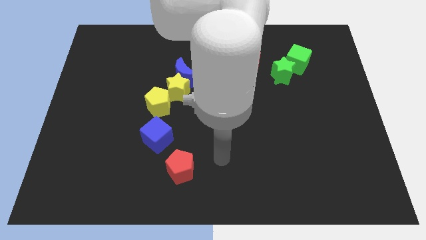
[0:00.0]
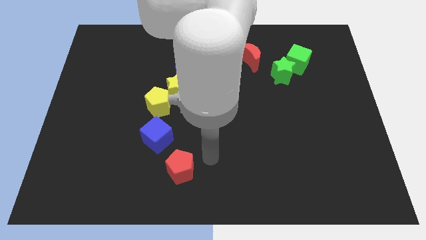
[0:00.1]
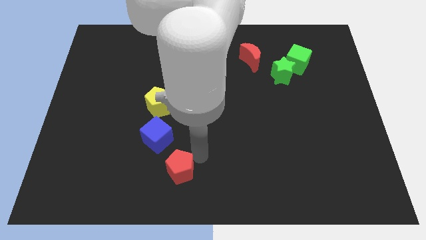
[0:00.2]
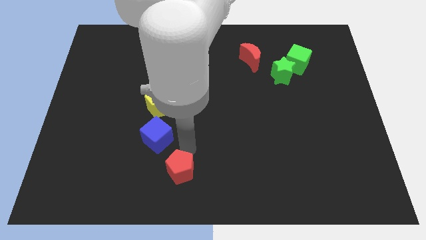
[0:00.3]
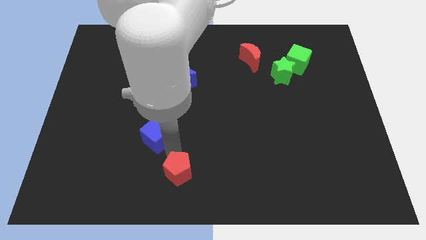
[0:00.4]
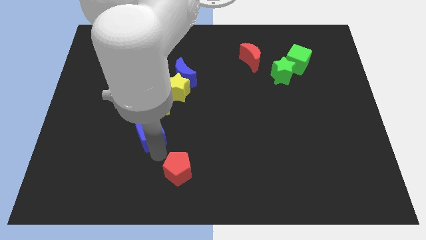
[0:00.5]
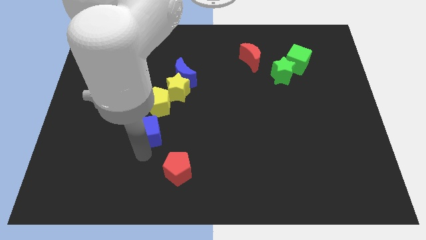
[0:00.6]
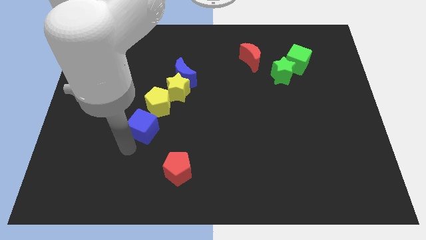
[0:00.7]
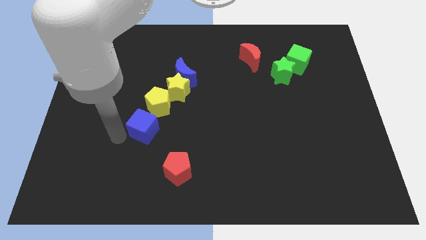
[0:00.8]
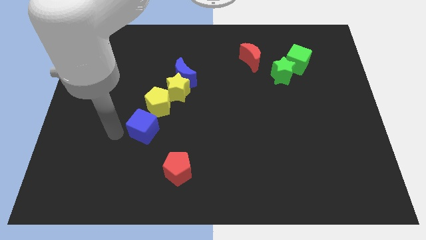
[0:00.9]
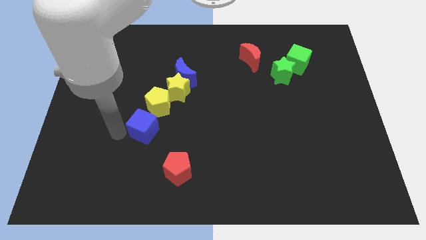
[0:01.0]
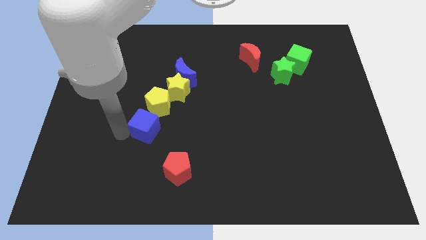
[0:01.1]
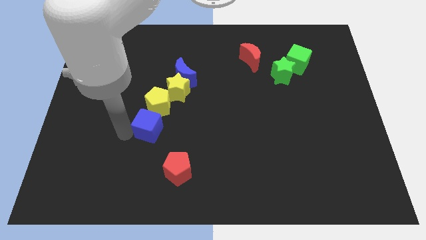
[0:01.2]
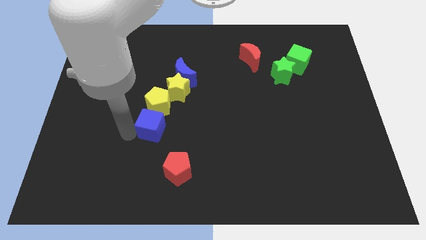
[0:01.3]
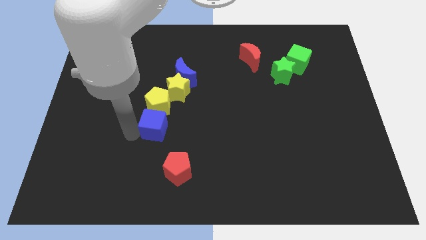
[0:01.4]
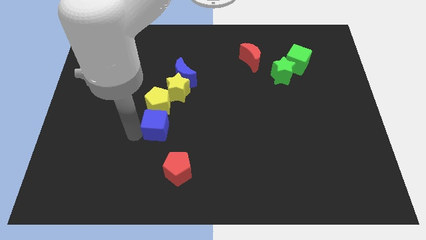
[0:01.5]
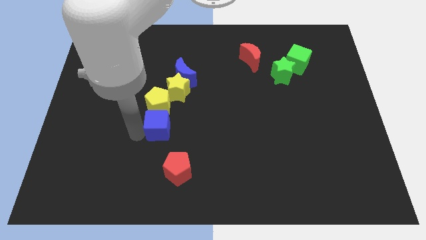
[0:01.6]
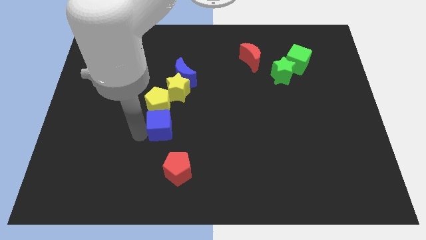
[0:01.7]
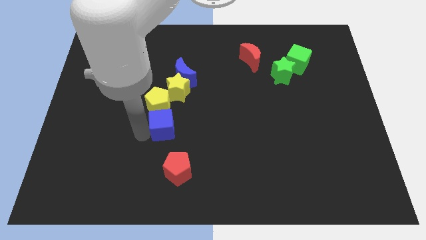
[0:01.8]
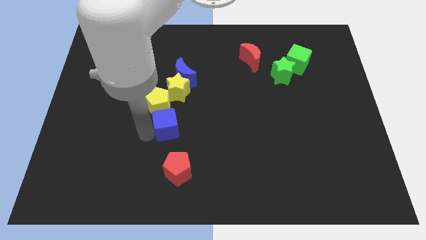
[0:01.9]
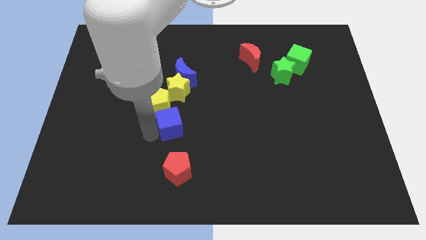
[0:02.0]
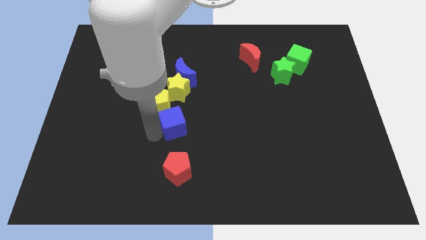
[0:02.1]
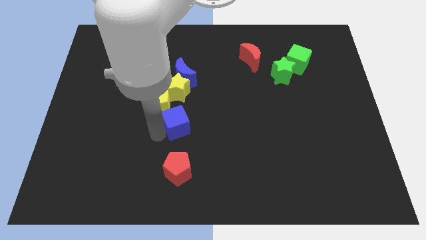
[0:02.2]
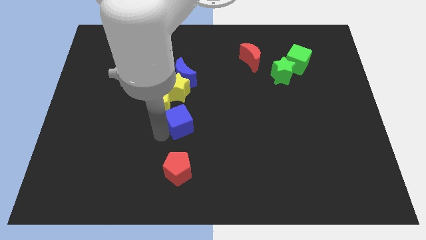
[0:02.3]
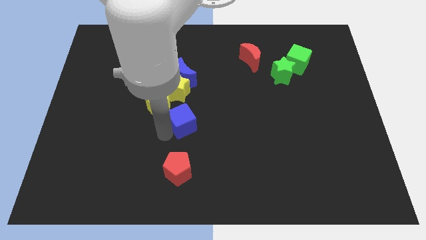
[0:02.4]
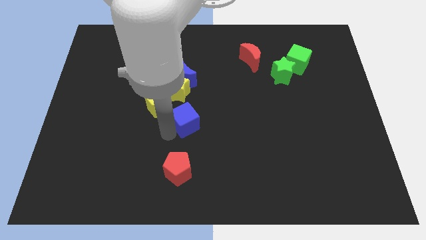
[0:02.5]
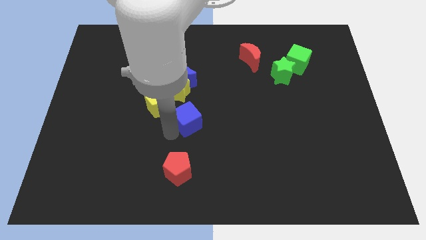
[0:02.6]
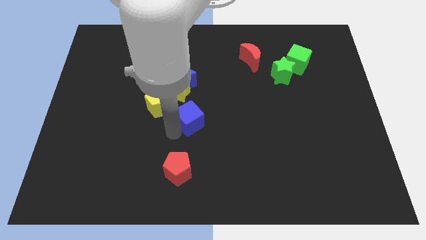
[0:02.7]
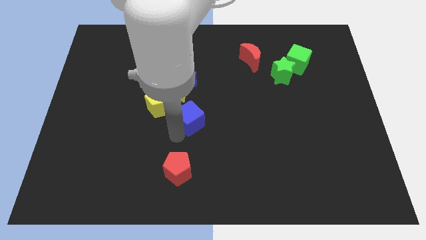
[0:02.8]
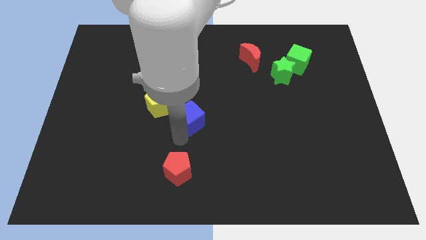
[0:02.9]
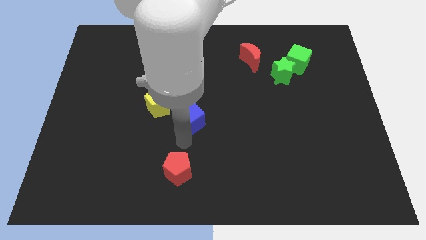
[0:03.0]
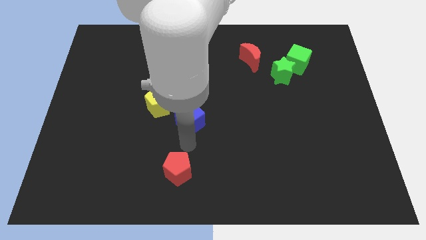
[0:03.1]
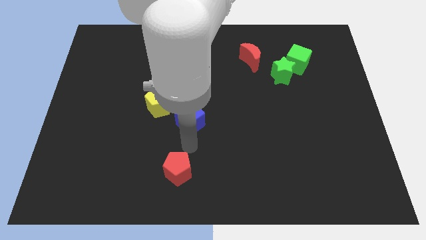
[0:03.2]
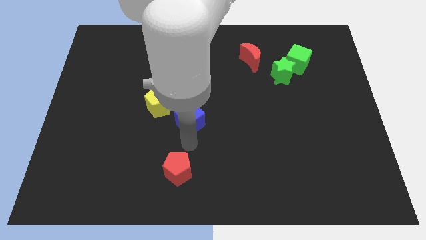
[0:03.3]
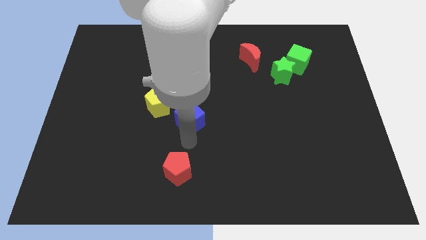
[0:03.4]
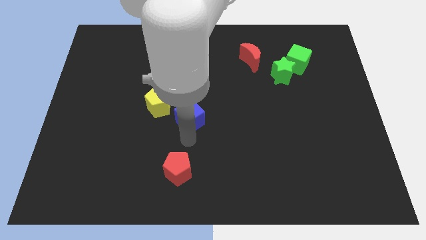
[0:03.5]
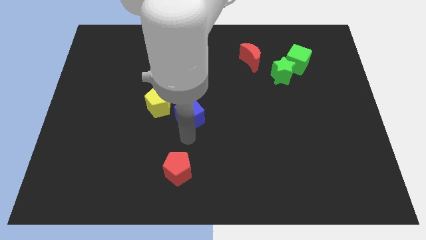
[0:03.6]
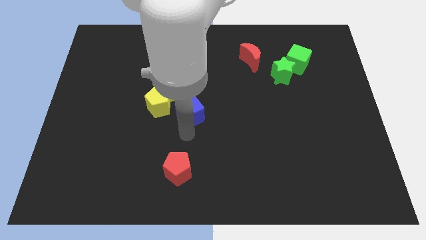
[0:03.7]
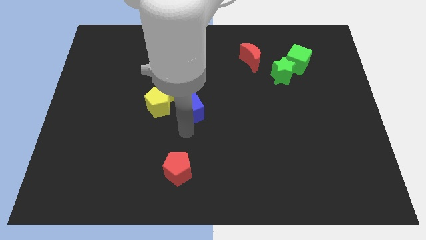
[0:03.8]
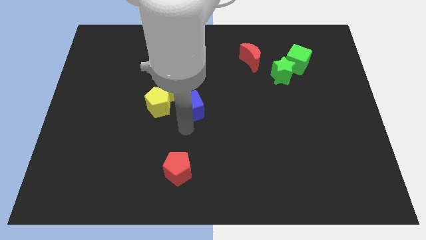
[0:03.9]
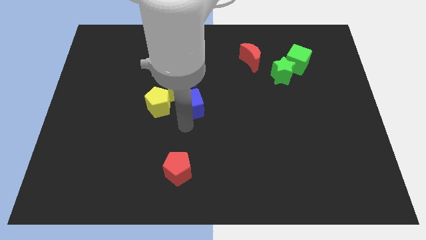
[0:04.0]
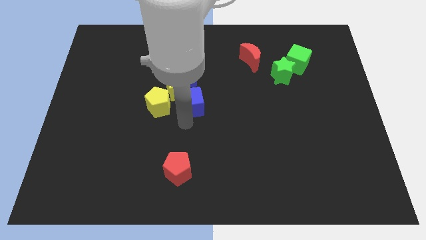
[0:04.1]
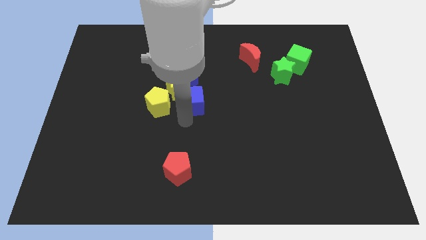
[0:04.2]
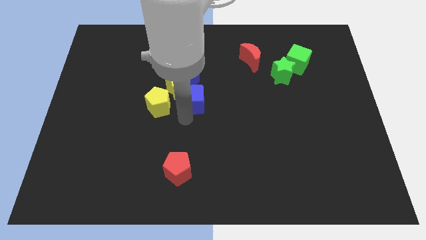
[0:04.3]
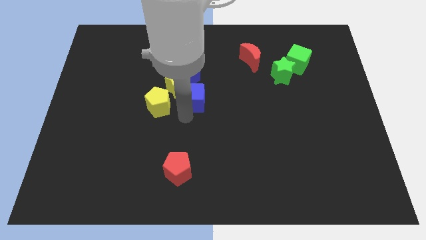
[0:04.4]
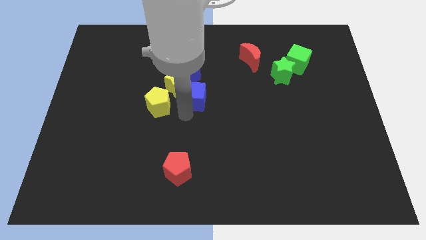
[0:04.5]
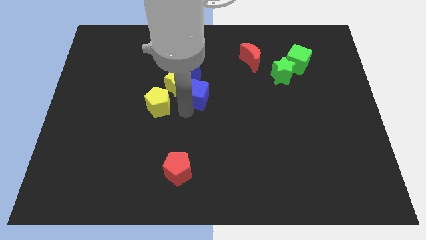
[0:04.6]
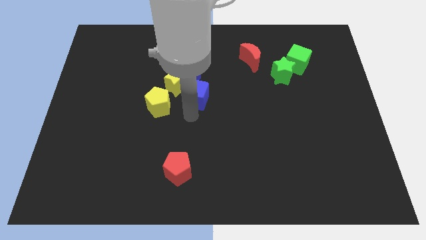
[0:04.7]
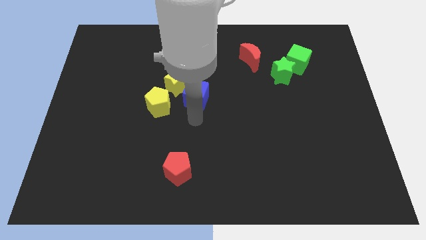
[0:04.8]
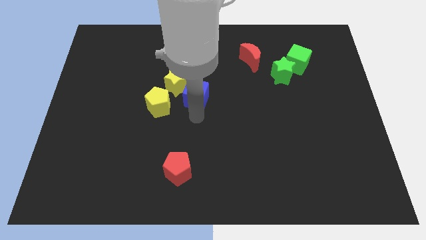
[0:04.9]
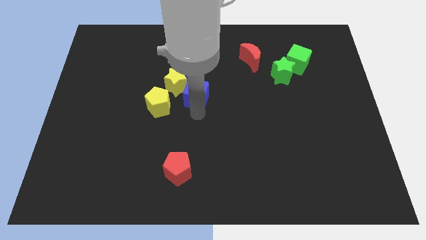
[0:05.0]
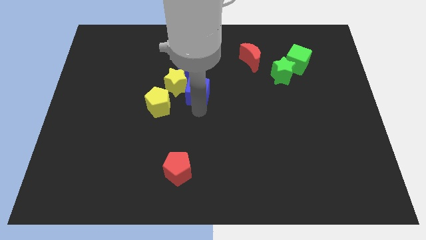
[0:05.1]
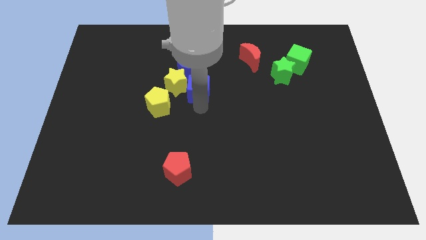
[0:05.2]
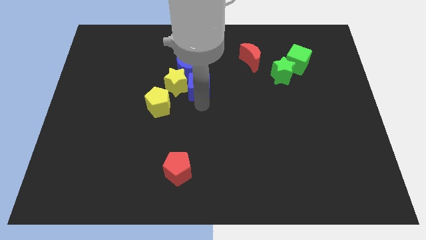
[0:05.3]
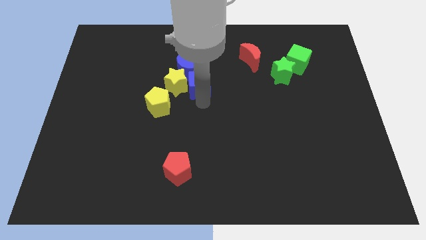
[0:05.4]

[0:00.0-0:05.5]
push the blue cube to the top right side of the yellow star

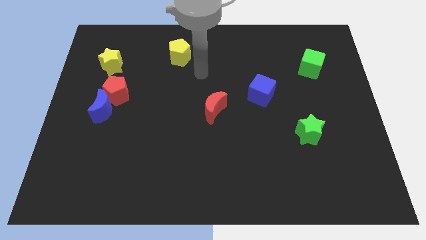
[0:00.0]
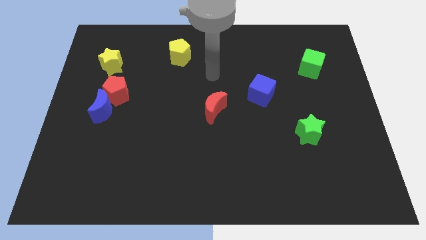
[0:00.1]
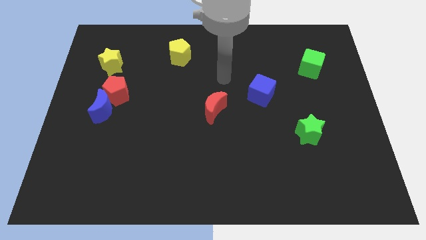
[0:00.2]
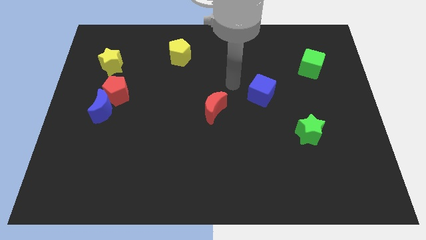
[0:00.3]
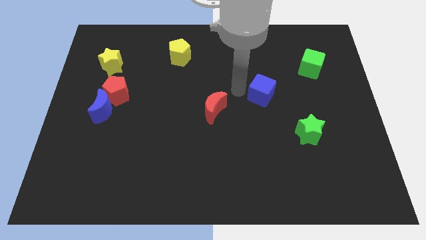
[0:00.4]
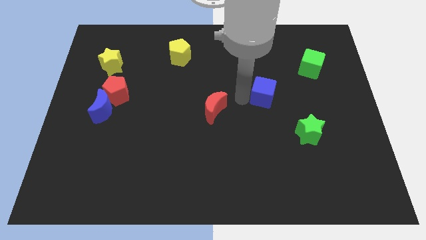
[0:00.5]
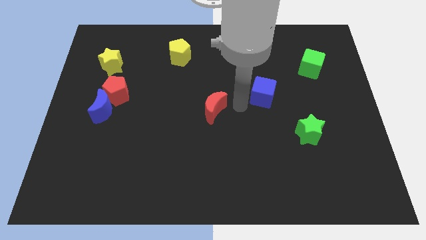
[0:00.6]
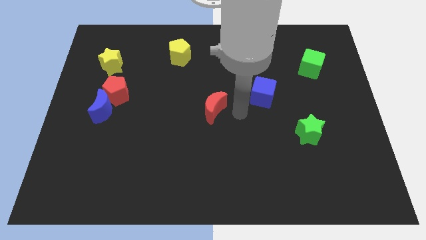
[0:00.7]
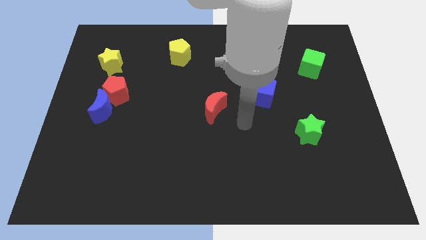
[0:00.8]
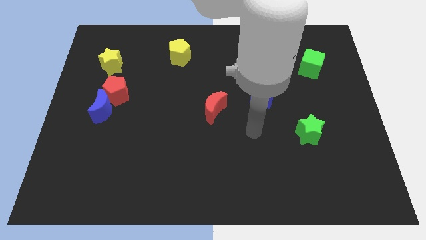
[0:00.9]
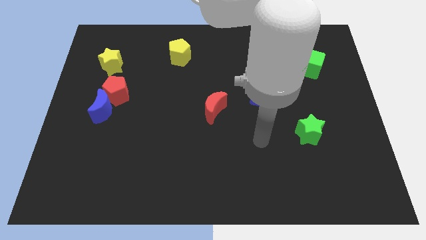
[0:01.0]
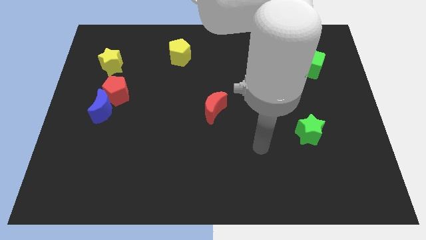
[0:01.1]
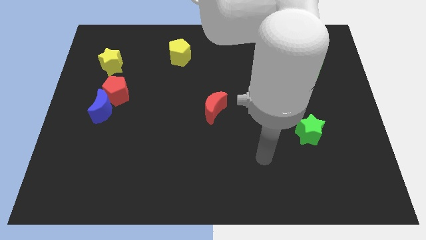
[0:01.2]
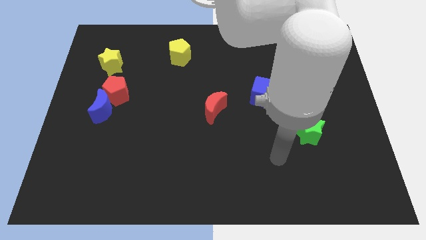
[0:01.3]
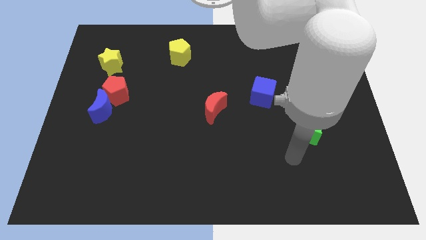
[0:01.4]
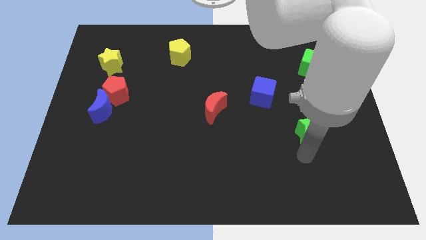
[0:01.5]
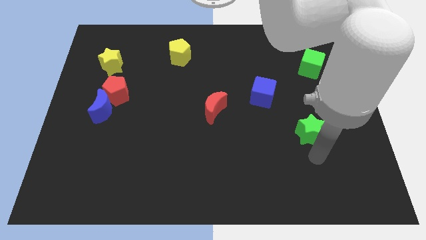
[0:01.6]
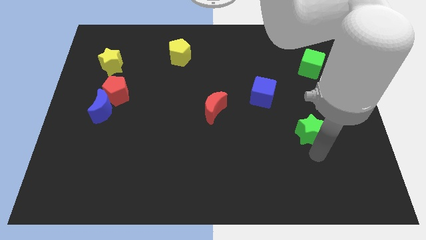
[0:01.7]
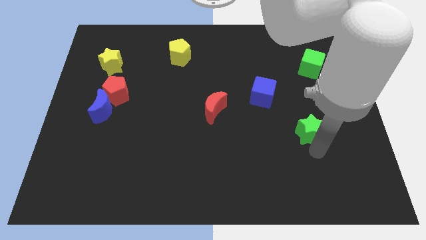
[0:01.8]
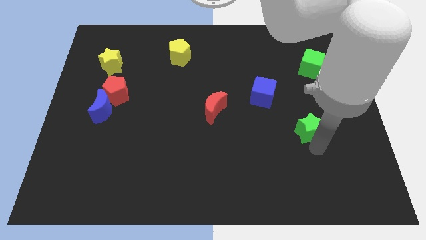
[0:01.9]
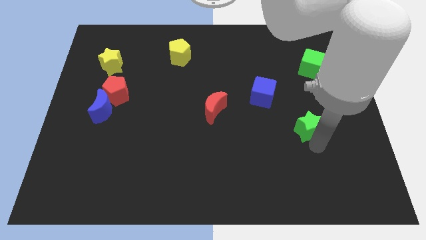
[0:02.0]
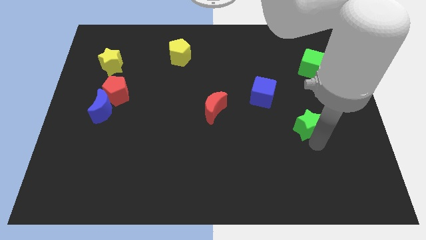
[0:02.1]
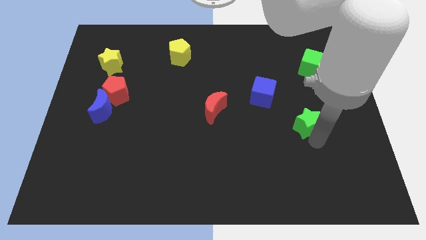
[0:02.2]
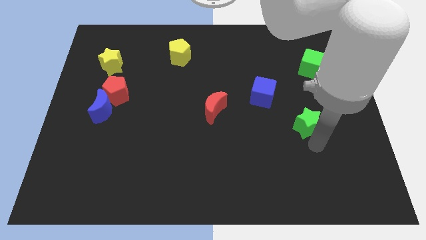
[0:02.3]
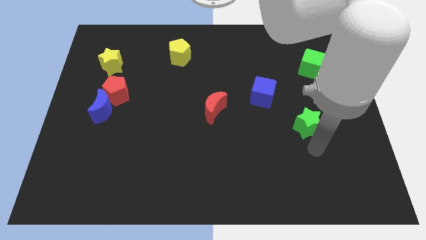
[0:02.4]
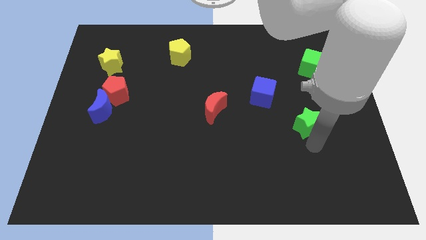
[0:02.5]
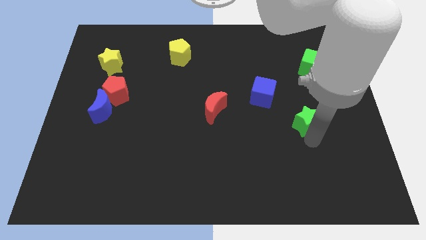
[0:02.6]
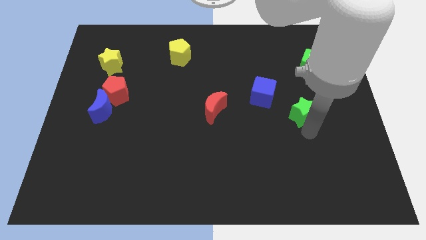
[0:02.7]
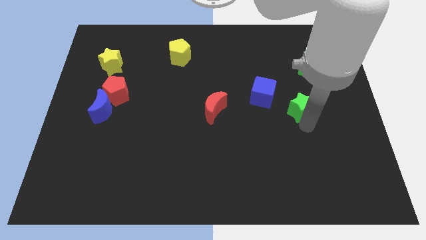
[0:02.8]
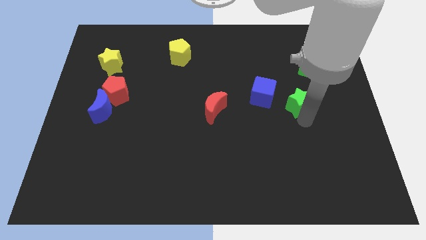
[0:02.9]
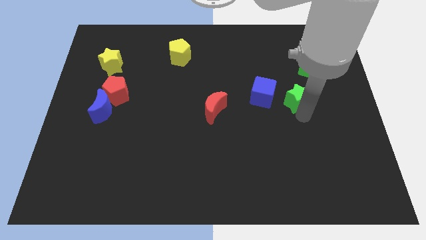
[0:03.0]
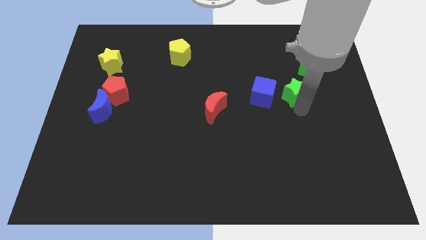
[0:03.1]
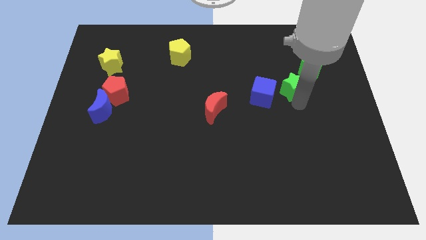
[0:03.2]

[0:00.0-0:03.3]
move the green star to the top right of the blue cube
